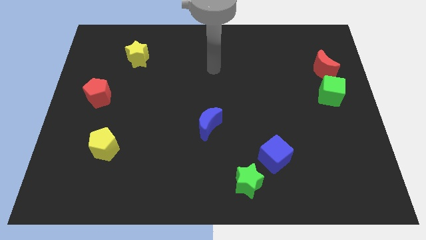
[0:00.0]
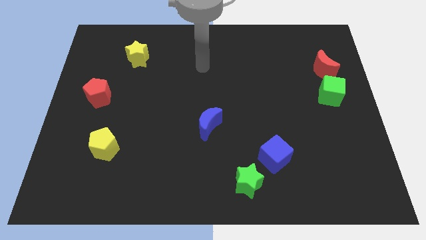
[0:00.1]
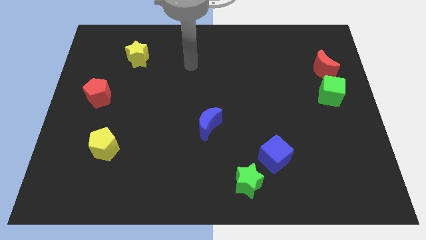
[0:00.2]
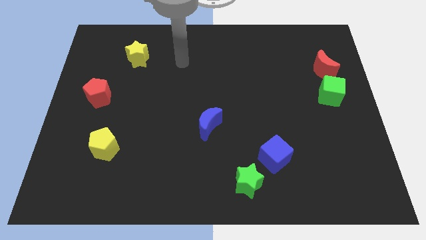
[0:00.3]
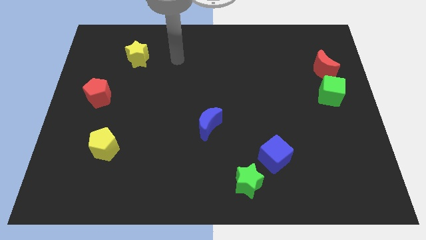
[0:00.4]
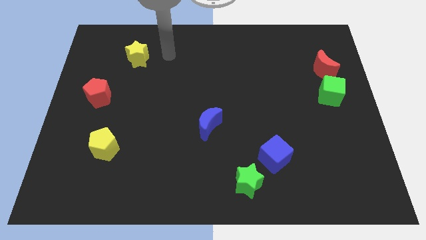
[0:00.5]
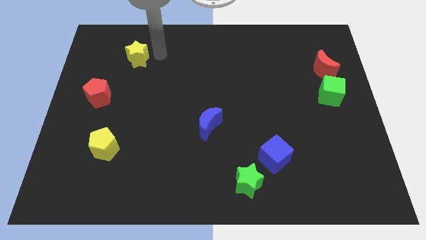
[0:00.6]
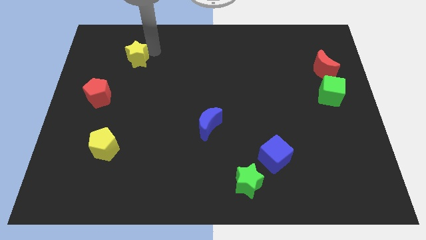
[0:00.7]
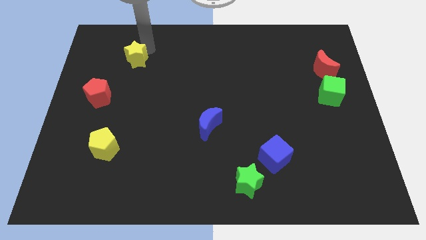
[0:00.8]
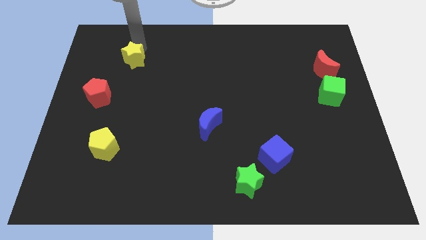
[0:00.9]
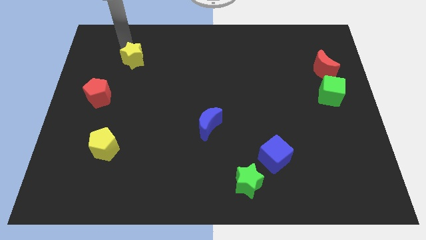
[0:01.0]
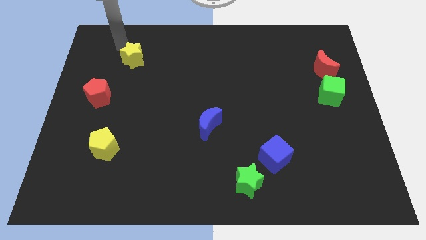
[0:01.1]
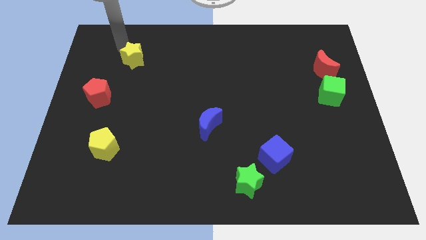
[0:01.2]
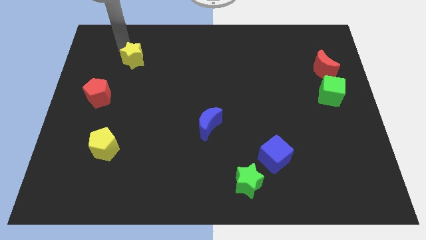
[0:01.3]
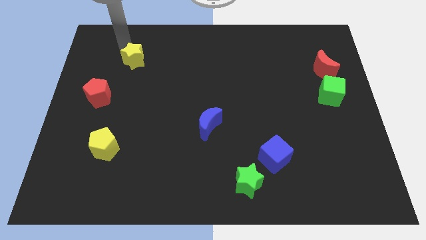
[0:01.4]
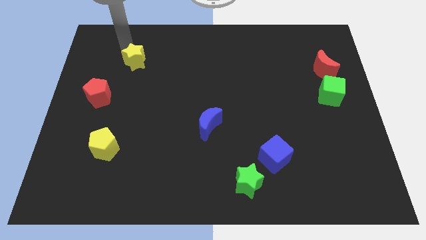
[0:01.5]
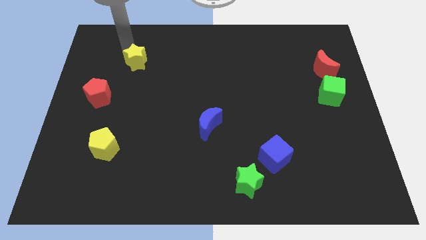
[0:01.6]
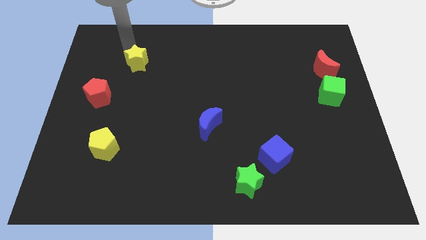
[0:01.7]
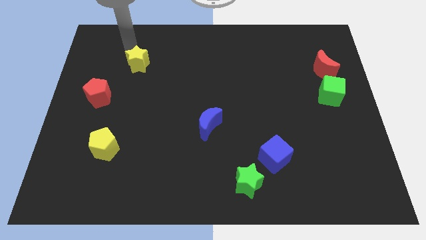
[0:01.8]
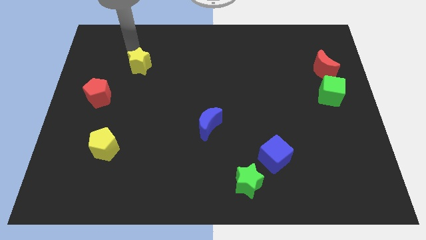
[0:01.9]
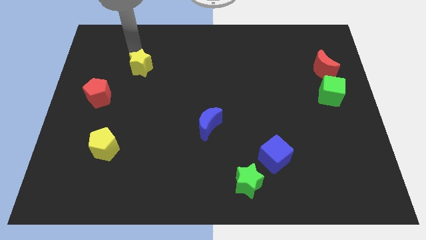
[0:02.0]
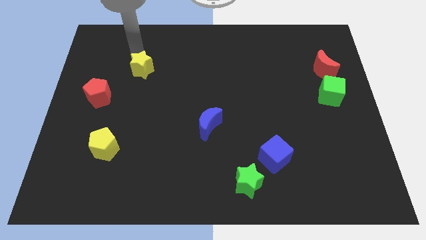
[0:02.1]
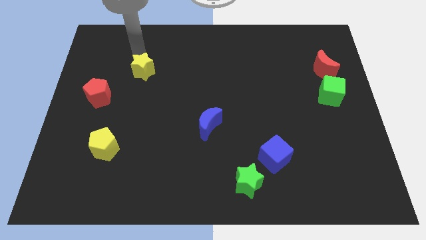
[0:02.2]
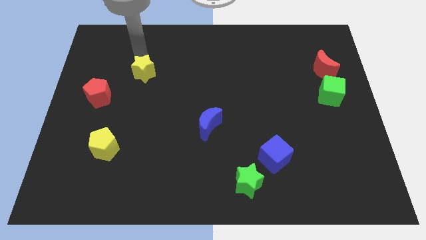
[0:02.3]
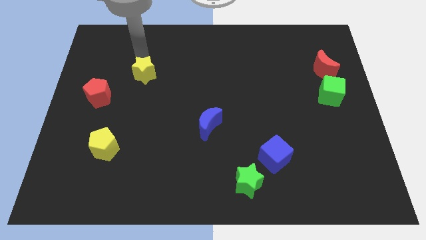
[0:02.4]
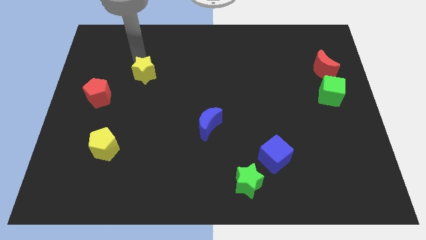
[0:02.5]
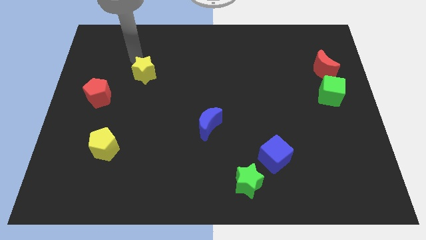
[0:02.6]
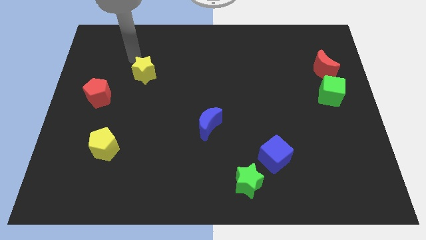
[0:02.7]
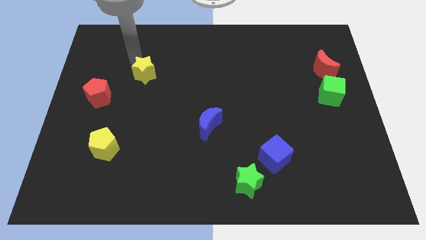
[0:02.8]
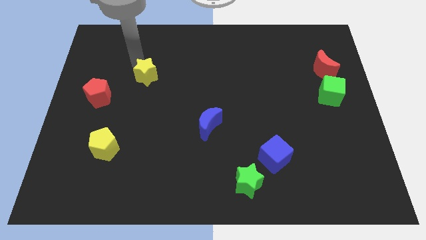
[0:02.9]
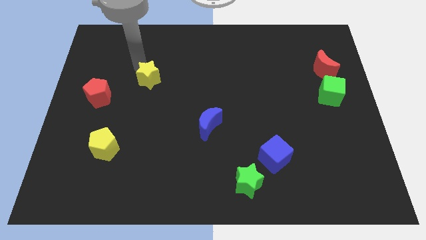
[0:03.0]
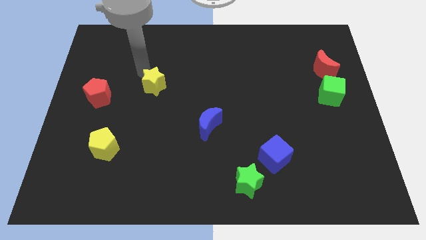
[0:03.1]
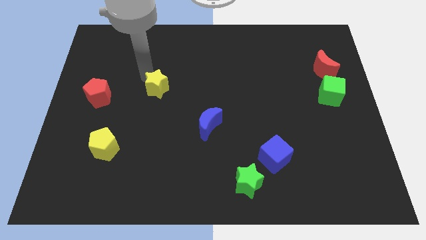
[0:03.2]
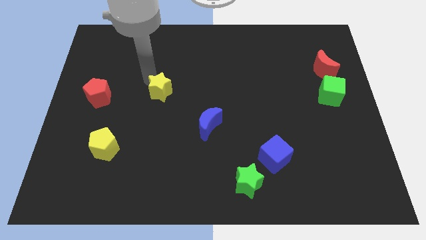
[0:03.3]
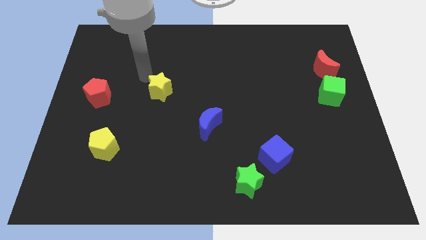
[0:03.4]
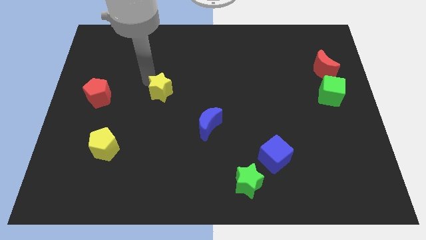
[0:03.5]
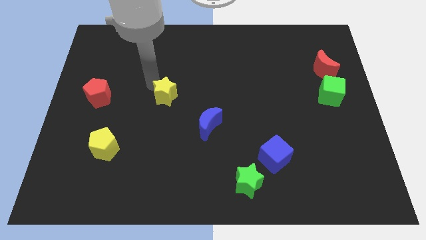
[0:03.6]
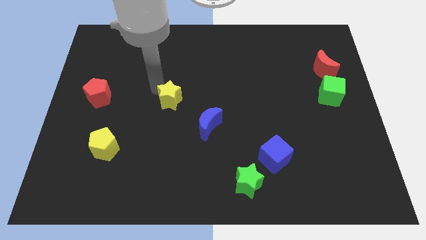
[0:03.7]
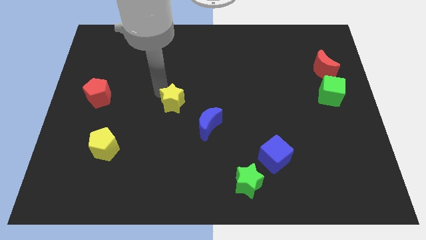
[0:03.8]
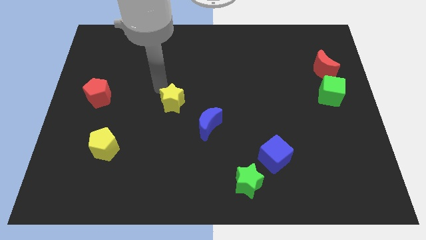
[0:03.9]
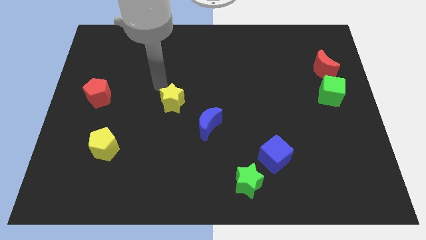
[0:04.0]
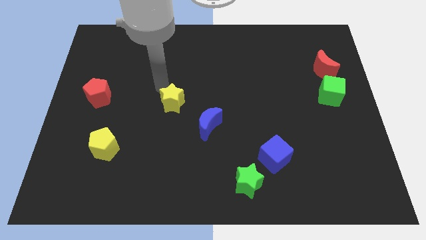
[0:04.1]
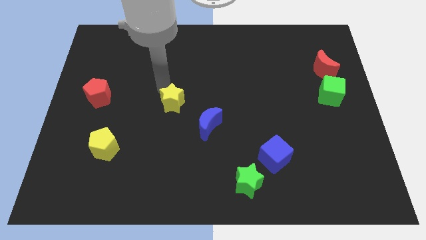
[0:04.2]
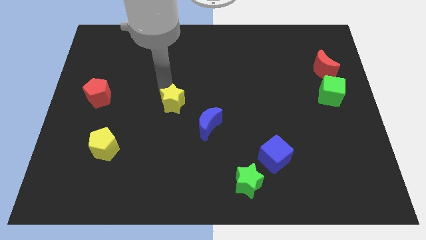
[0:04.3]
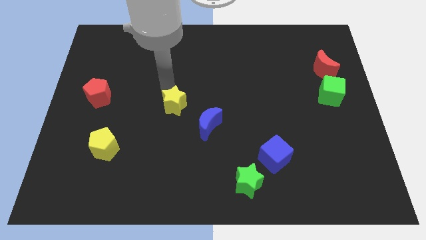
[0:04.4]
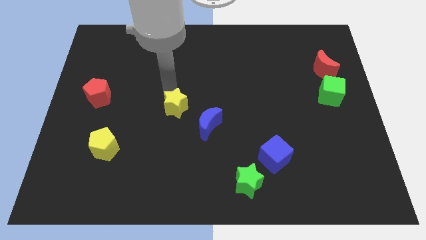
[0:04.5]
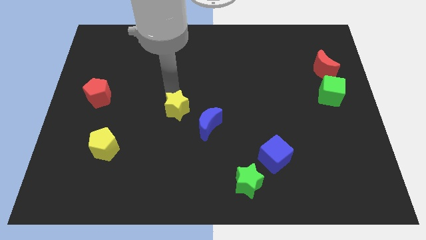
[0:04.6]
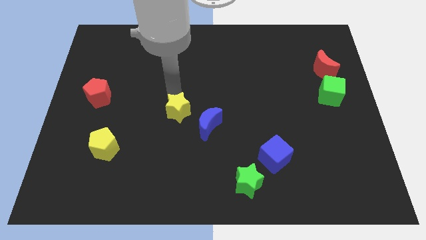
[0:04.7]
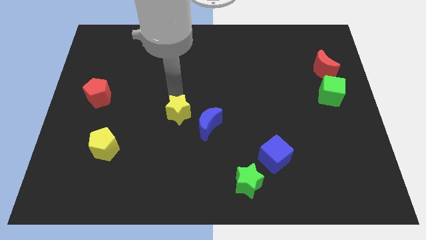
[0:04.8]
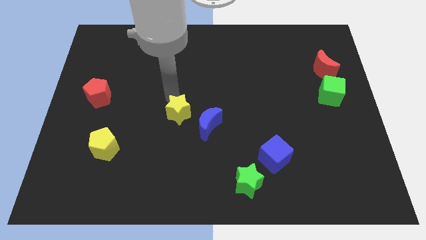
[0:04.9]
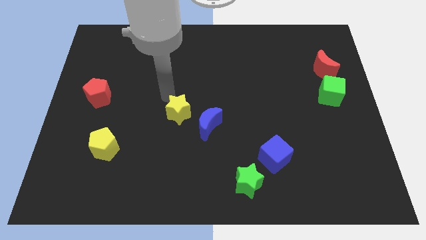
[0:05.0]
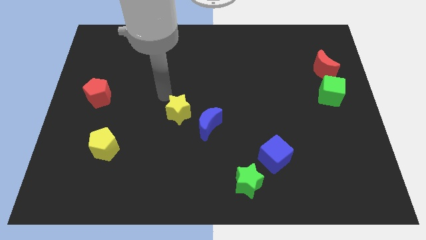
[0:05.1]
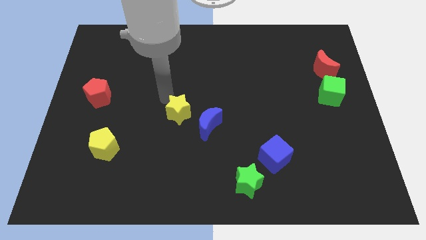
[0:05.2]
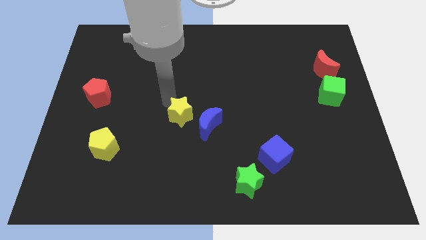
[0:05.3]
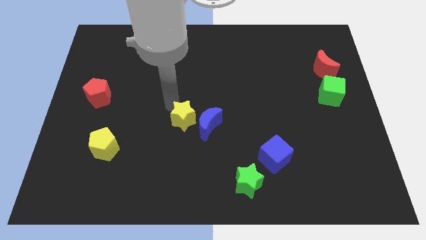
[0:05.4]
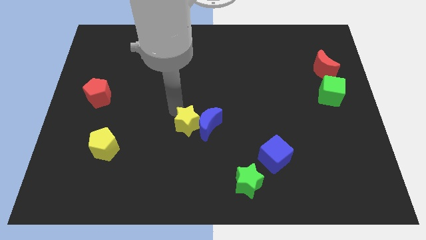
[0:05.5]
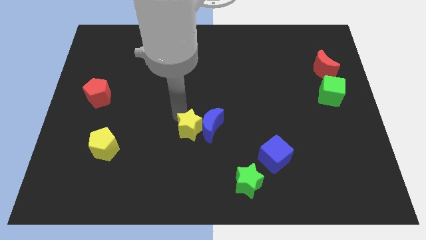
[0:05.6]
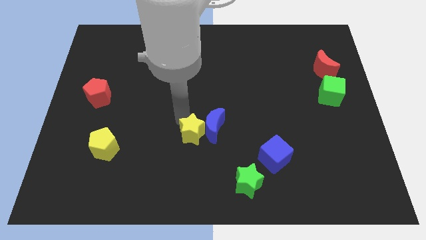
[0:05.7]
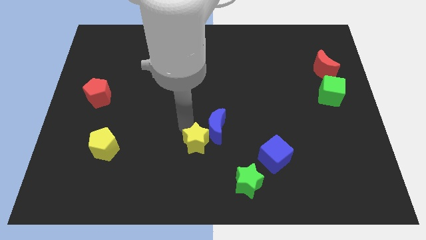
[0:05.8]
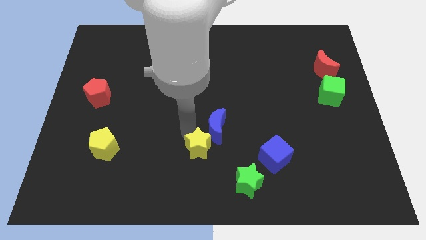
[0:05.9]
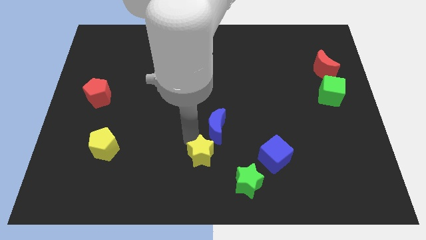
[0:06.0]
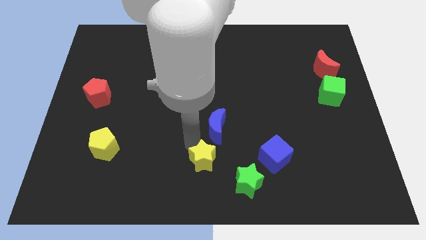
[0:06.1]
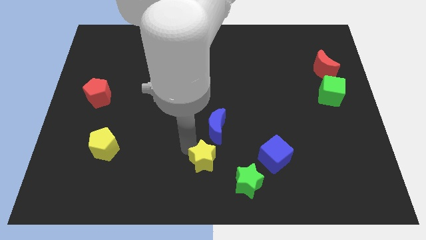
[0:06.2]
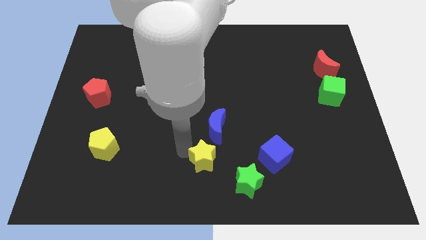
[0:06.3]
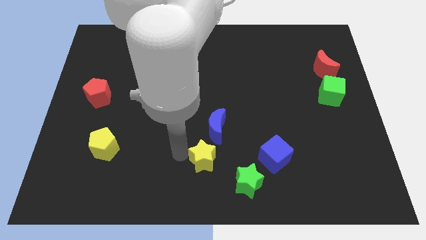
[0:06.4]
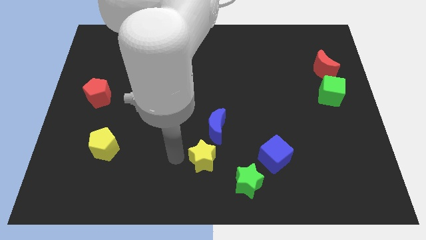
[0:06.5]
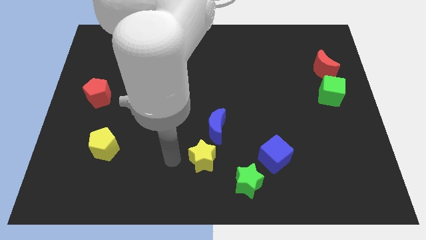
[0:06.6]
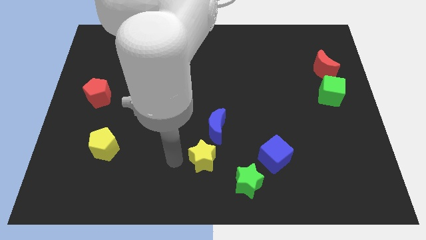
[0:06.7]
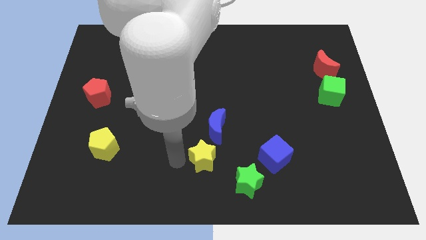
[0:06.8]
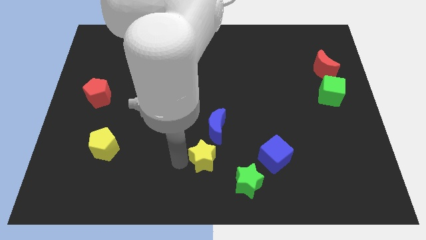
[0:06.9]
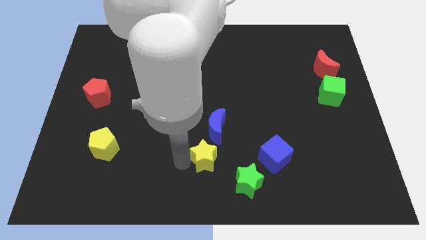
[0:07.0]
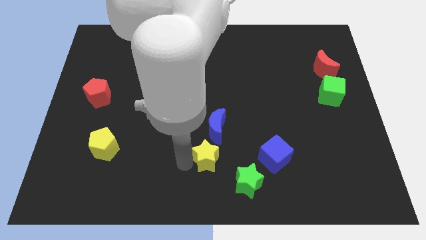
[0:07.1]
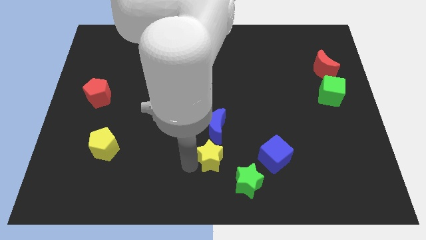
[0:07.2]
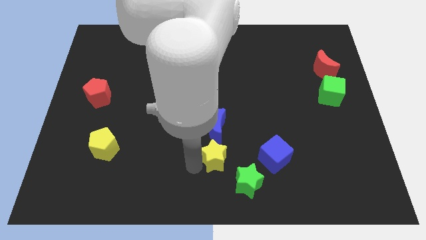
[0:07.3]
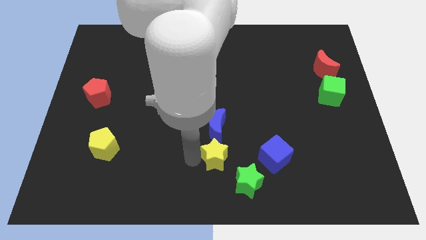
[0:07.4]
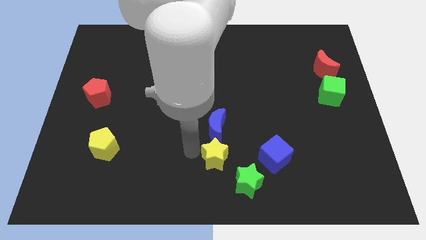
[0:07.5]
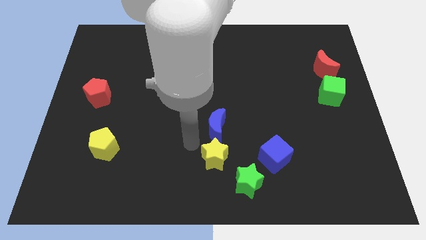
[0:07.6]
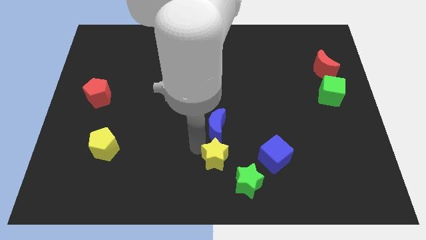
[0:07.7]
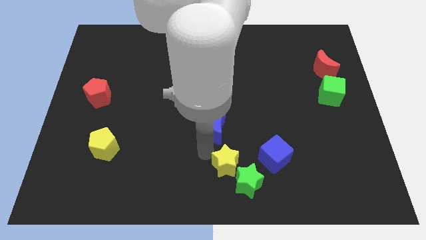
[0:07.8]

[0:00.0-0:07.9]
put the yellow star close to the green star
